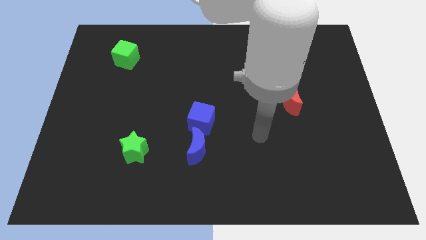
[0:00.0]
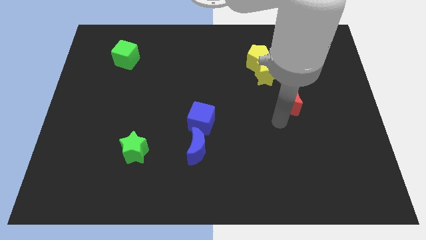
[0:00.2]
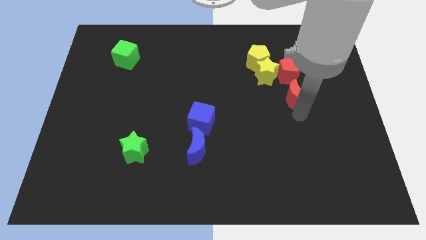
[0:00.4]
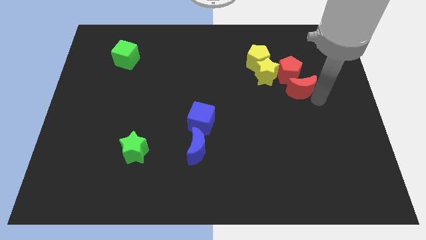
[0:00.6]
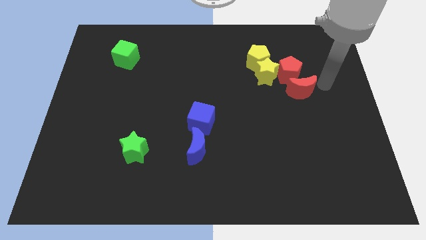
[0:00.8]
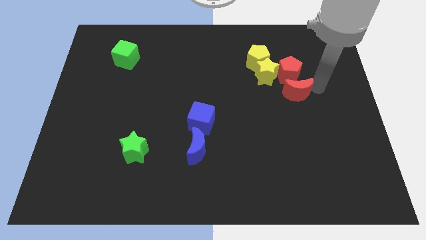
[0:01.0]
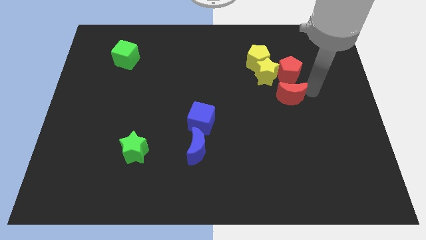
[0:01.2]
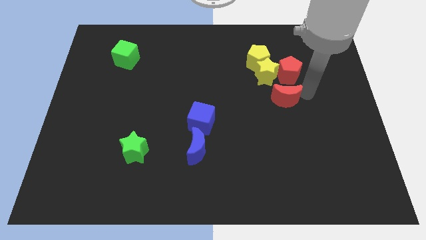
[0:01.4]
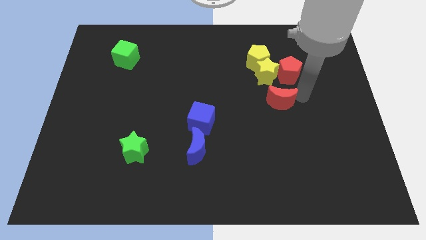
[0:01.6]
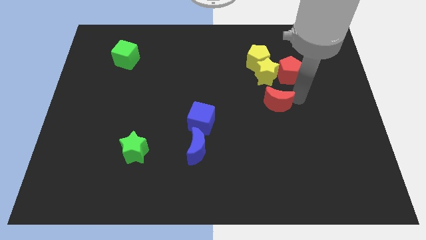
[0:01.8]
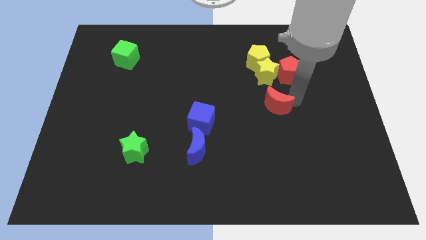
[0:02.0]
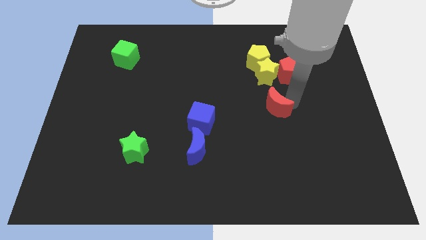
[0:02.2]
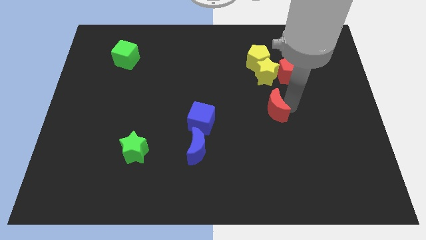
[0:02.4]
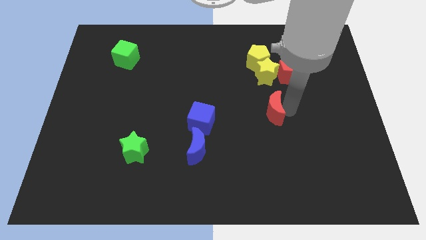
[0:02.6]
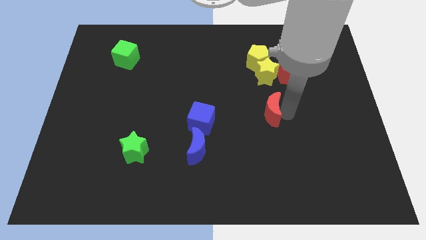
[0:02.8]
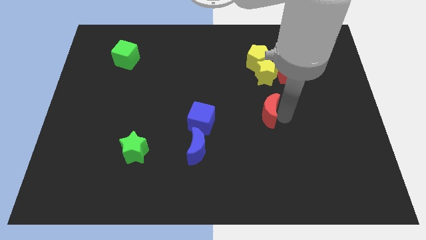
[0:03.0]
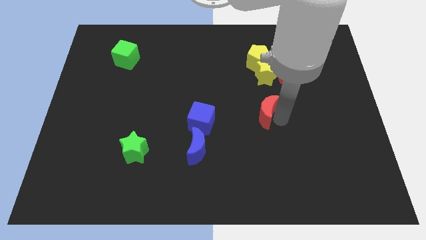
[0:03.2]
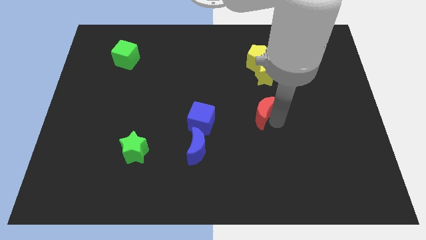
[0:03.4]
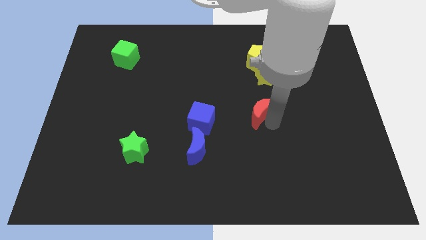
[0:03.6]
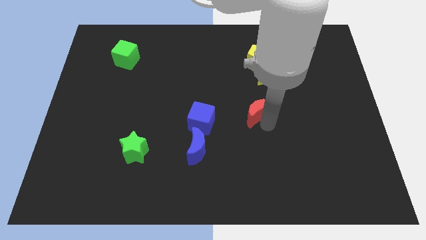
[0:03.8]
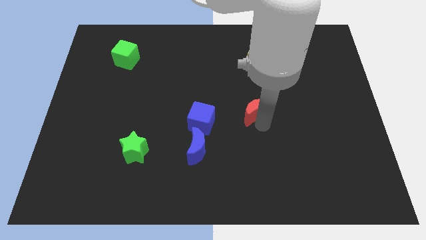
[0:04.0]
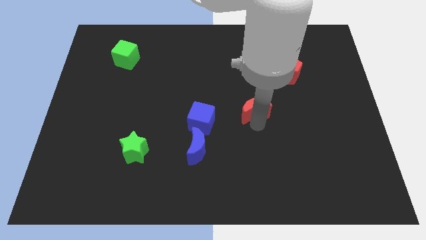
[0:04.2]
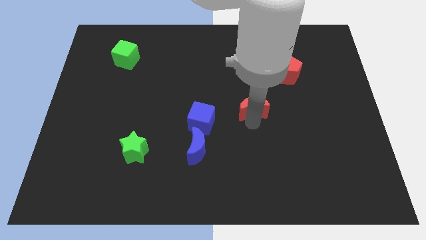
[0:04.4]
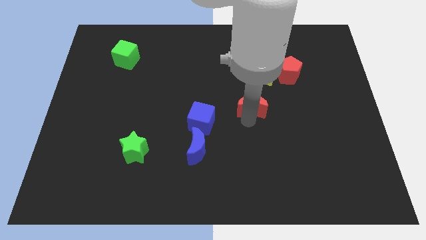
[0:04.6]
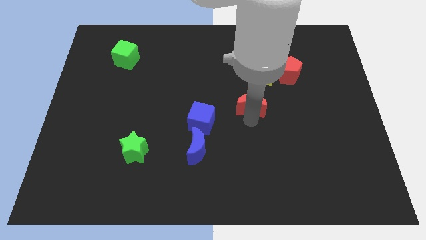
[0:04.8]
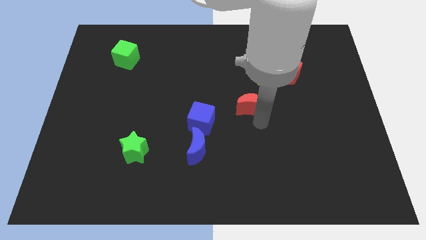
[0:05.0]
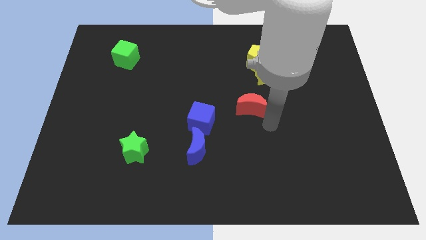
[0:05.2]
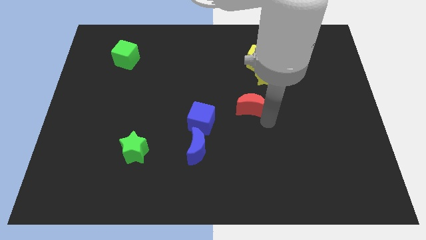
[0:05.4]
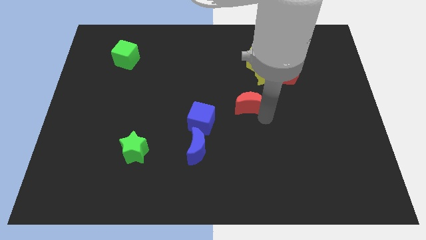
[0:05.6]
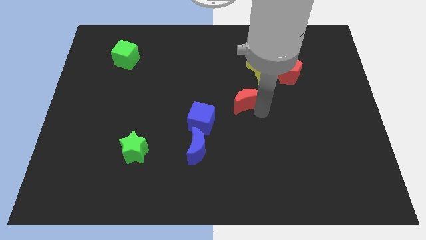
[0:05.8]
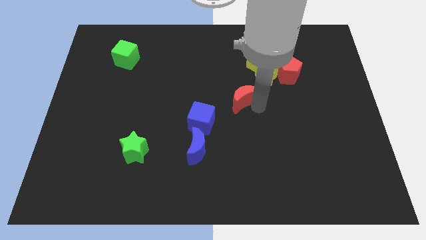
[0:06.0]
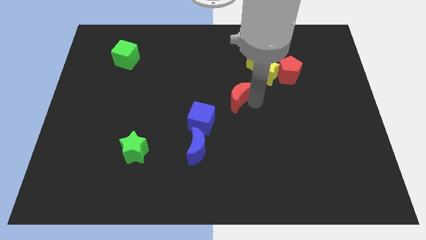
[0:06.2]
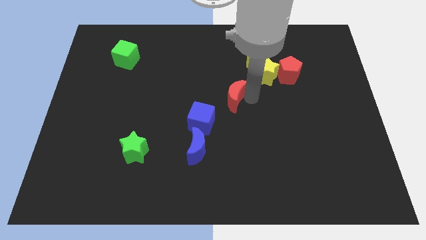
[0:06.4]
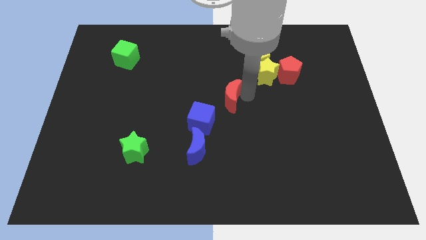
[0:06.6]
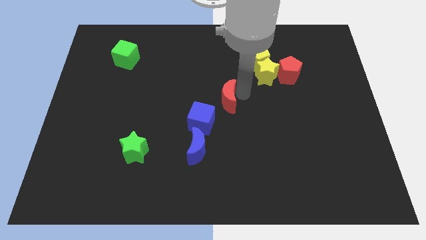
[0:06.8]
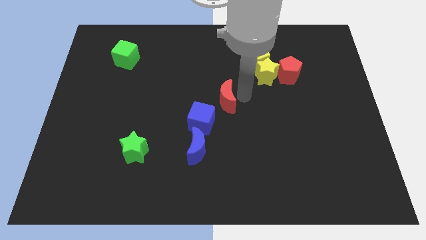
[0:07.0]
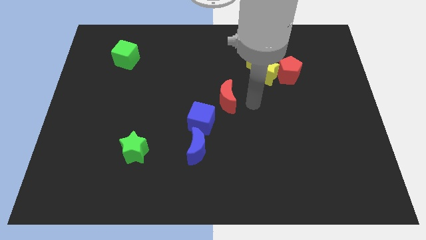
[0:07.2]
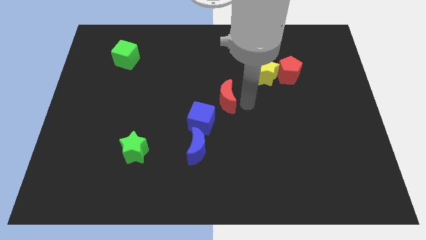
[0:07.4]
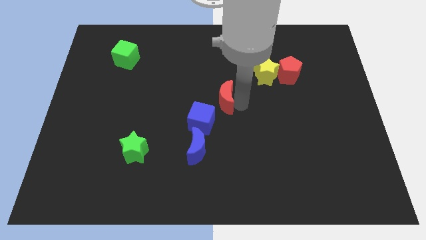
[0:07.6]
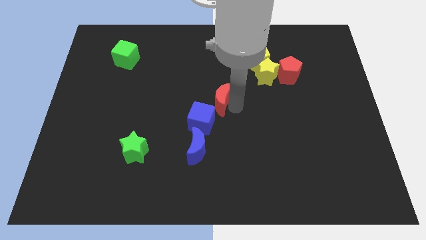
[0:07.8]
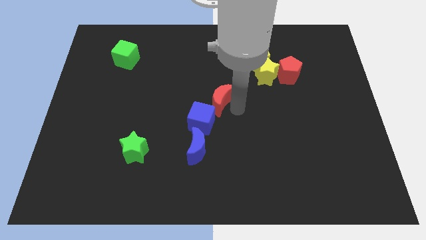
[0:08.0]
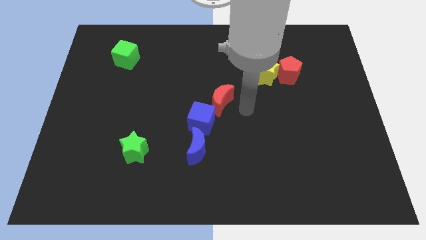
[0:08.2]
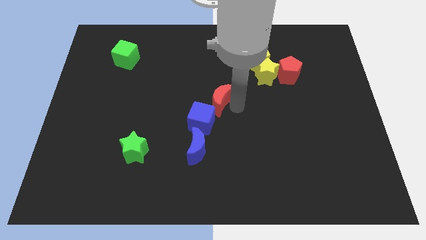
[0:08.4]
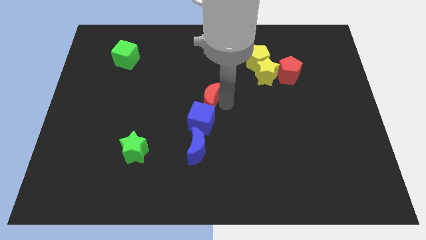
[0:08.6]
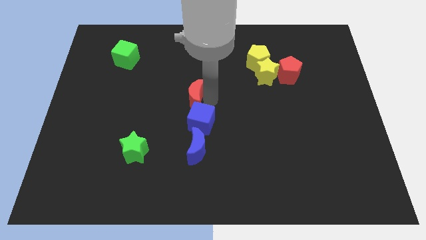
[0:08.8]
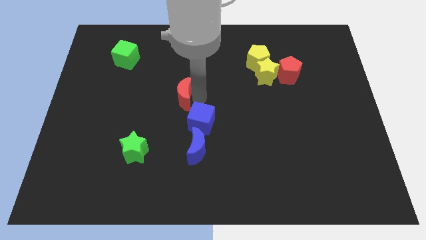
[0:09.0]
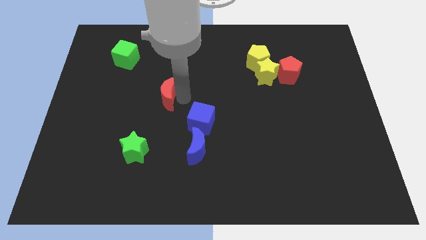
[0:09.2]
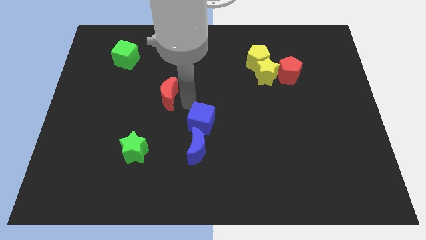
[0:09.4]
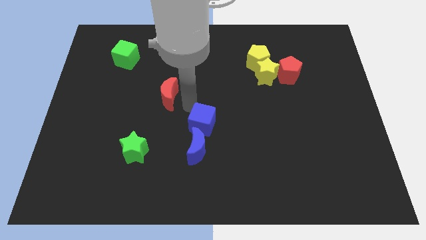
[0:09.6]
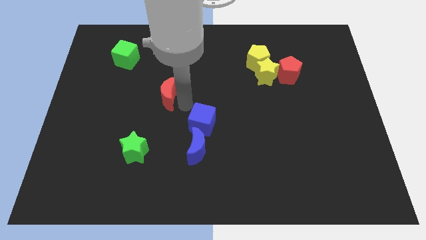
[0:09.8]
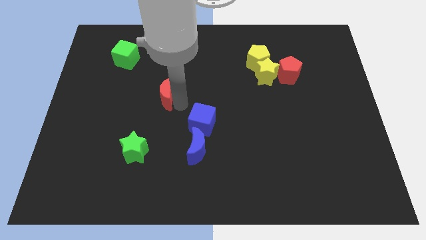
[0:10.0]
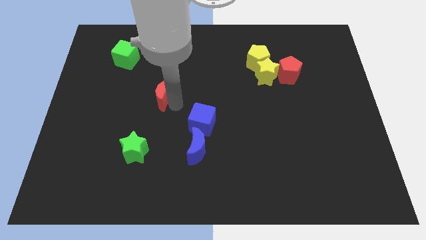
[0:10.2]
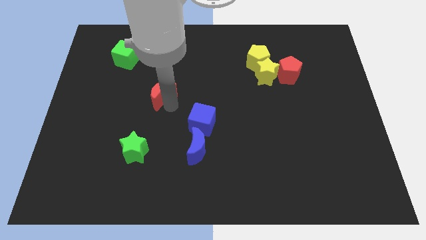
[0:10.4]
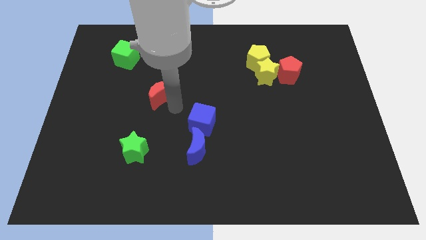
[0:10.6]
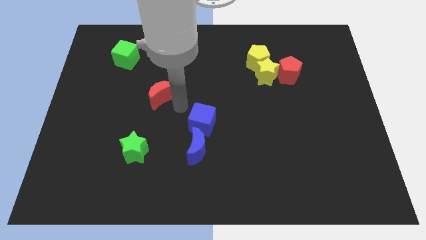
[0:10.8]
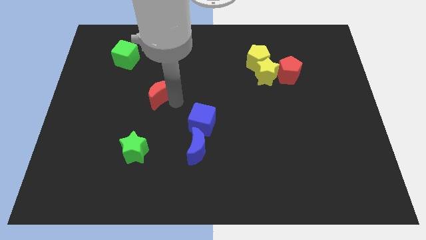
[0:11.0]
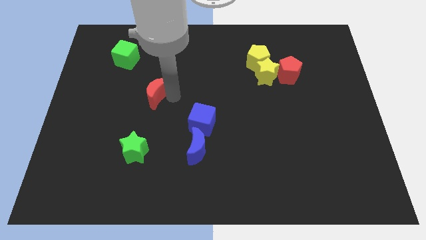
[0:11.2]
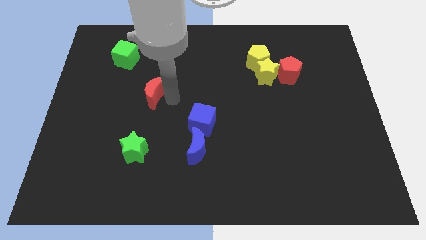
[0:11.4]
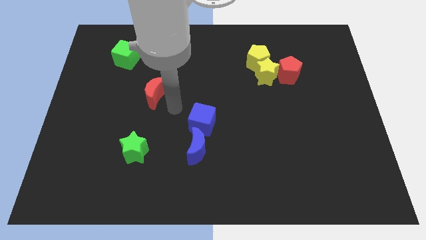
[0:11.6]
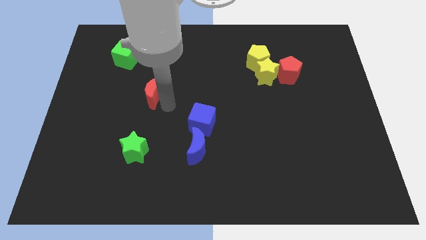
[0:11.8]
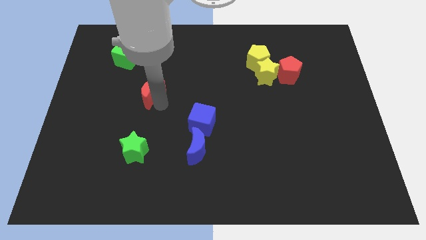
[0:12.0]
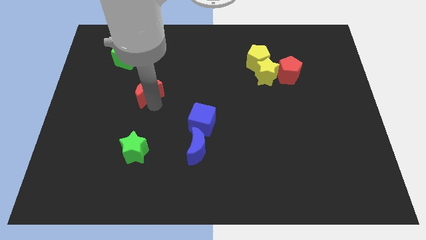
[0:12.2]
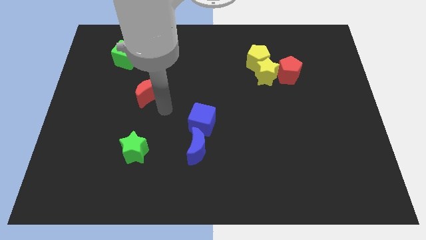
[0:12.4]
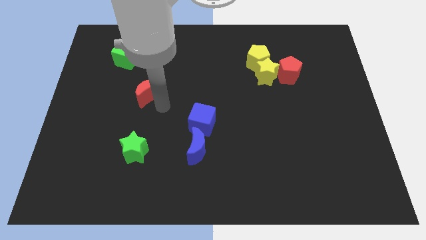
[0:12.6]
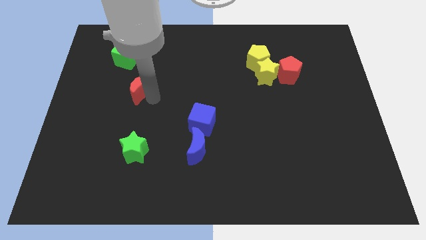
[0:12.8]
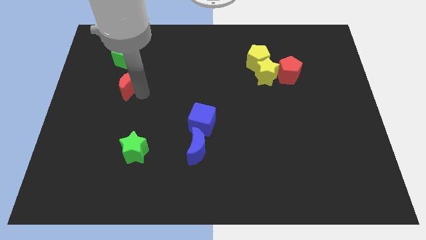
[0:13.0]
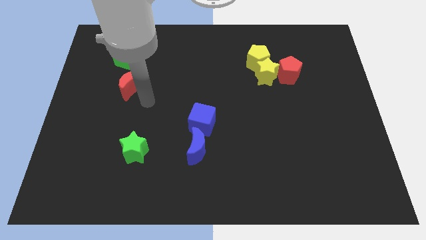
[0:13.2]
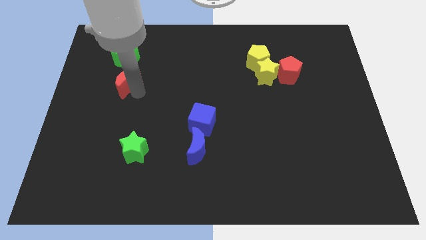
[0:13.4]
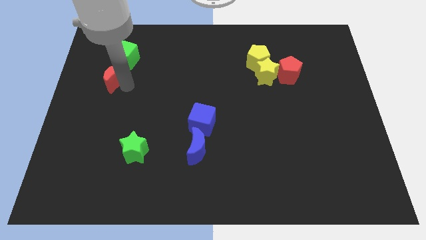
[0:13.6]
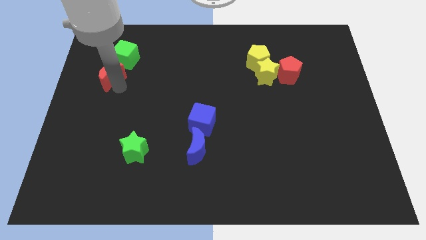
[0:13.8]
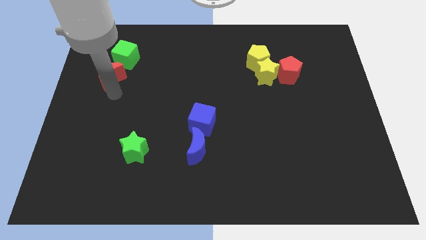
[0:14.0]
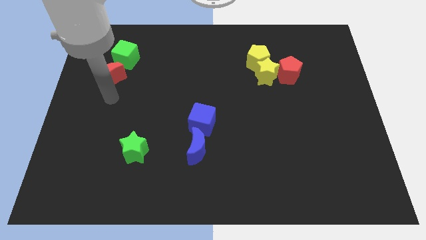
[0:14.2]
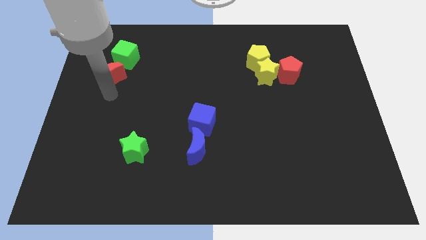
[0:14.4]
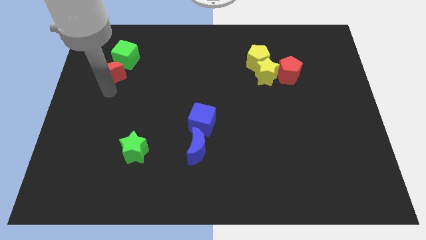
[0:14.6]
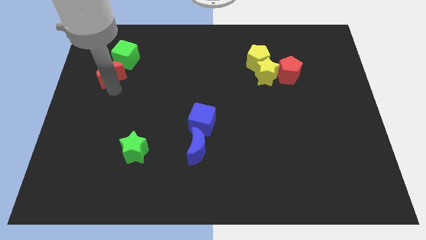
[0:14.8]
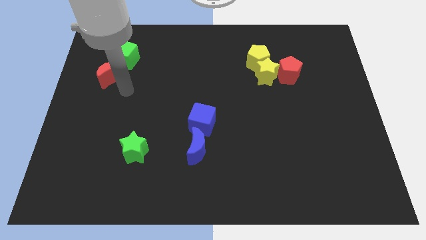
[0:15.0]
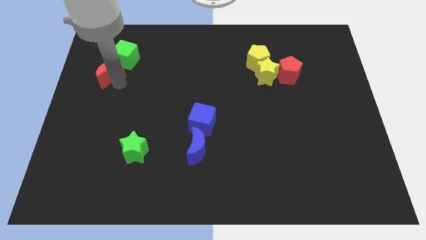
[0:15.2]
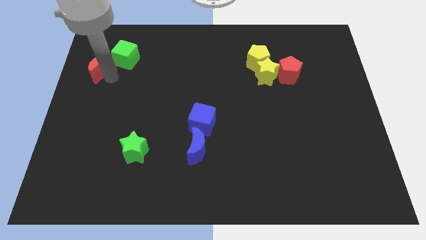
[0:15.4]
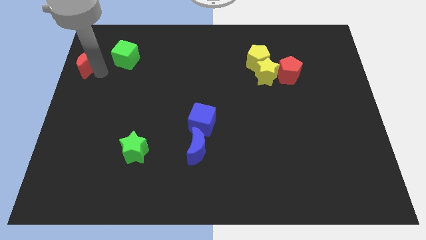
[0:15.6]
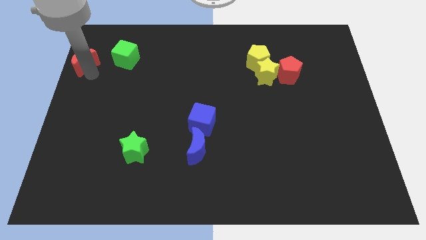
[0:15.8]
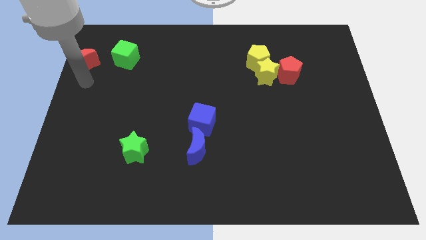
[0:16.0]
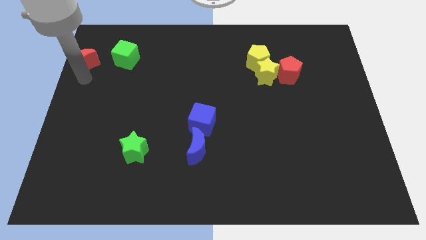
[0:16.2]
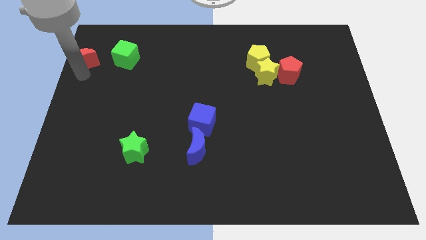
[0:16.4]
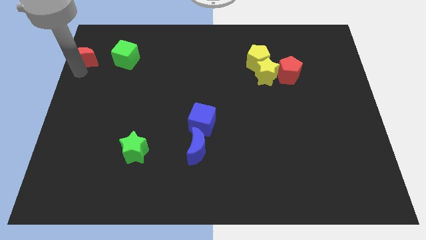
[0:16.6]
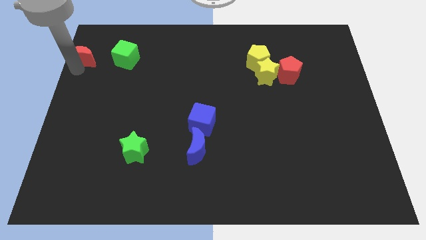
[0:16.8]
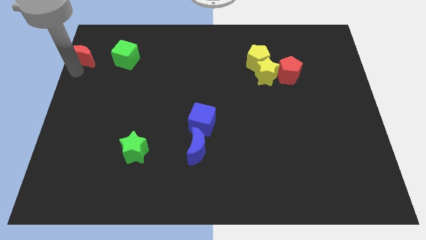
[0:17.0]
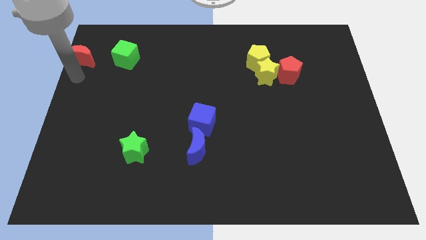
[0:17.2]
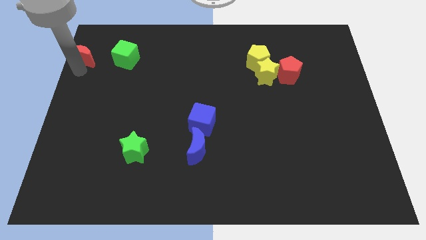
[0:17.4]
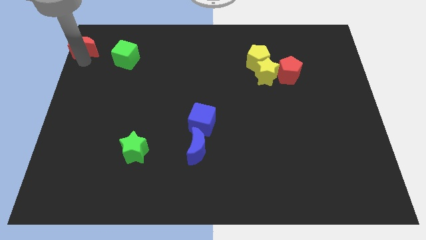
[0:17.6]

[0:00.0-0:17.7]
put the red moon to the top left of the board
